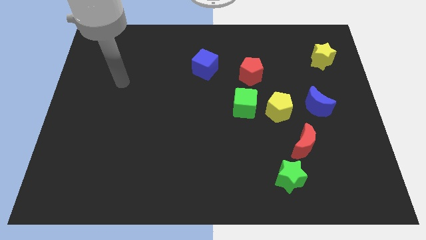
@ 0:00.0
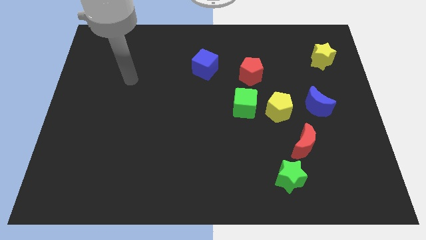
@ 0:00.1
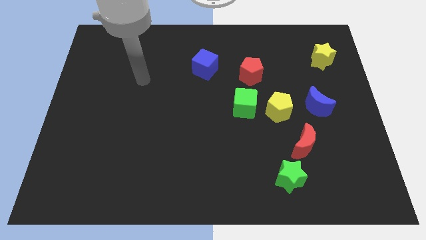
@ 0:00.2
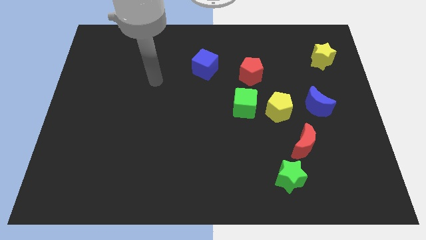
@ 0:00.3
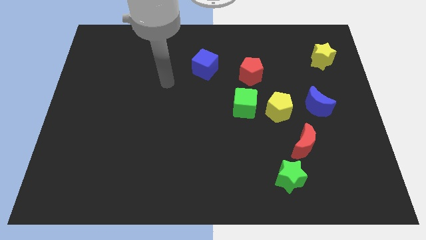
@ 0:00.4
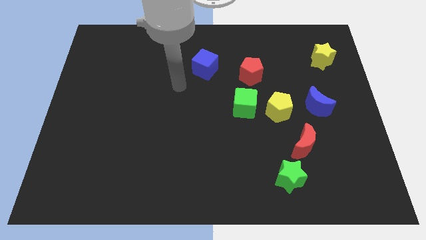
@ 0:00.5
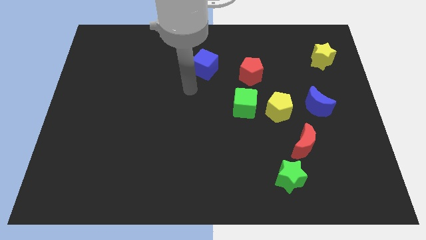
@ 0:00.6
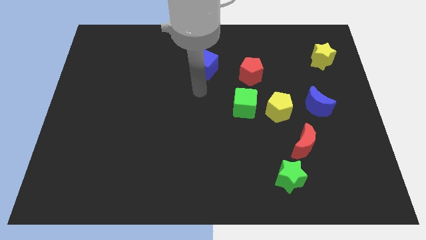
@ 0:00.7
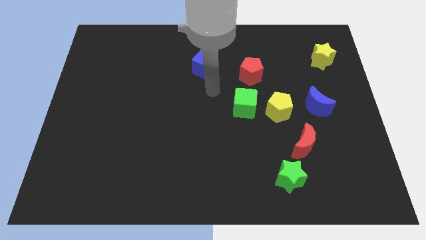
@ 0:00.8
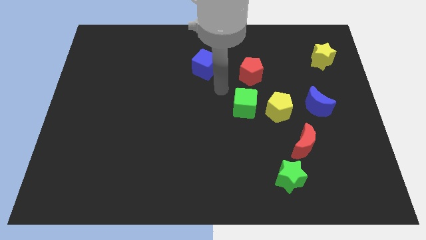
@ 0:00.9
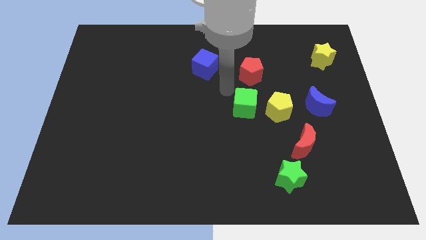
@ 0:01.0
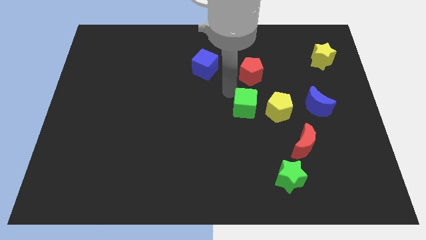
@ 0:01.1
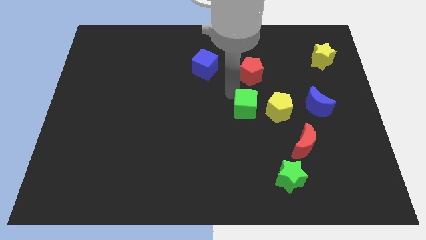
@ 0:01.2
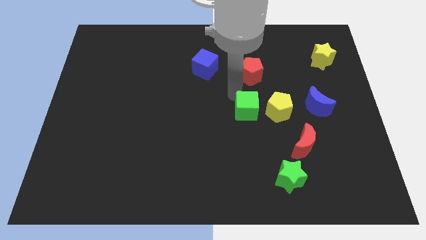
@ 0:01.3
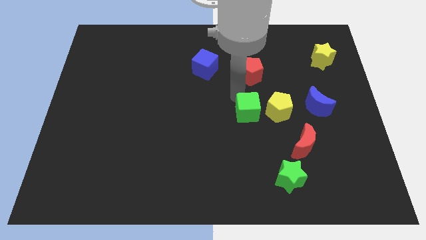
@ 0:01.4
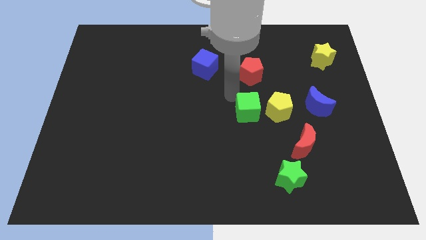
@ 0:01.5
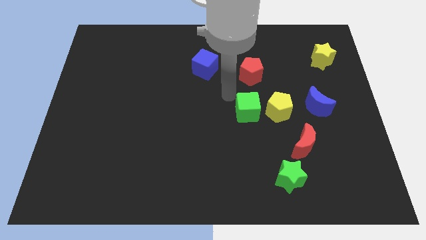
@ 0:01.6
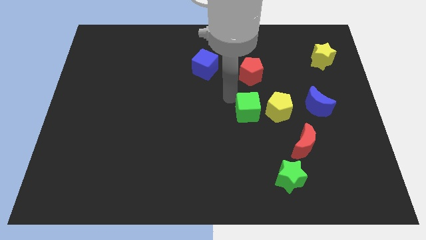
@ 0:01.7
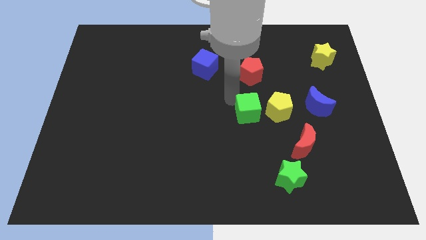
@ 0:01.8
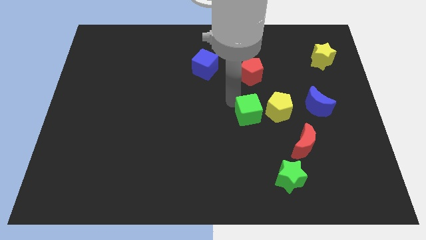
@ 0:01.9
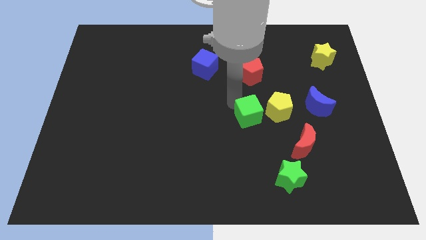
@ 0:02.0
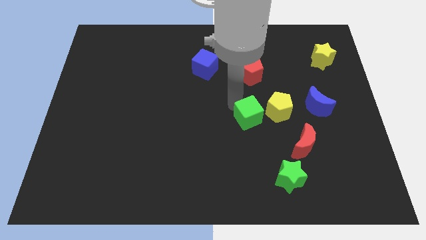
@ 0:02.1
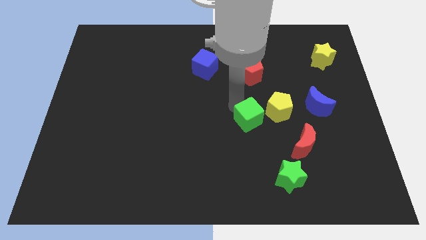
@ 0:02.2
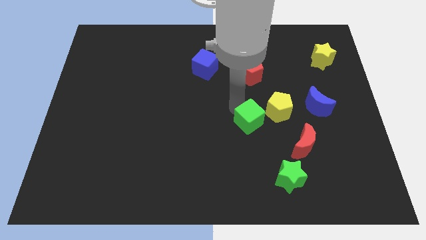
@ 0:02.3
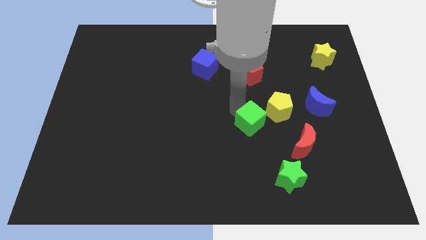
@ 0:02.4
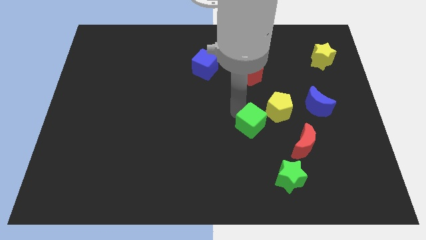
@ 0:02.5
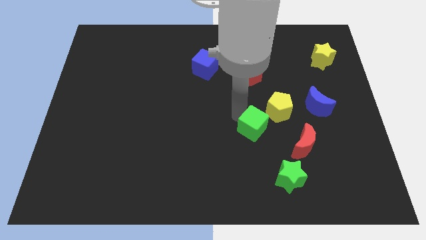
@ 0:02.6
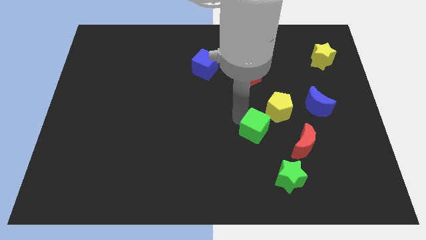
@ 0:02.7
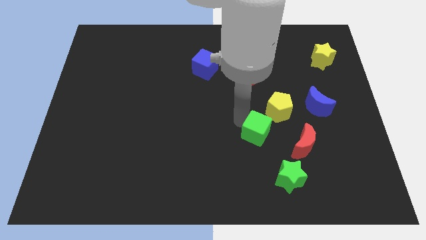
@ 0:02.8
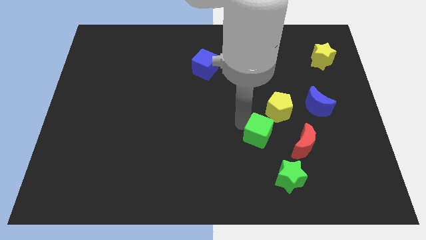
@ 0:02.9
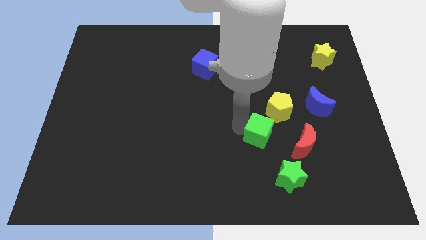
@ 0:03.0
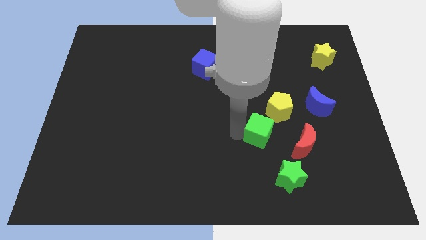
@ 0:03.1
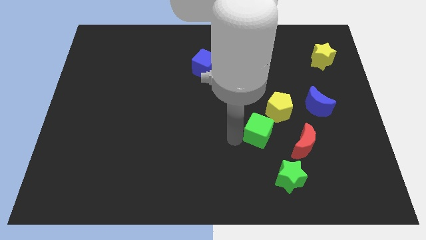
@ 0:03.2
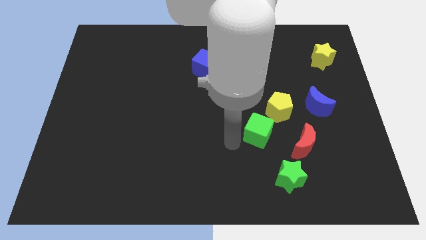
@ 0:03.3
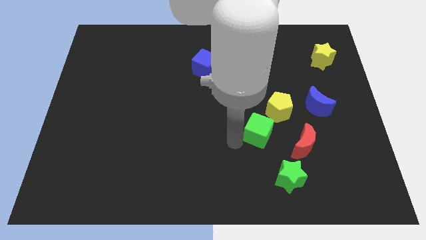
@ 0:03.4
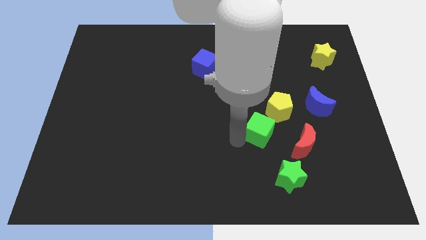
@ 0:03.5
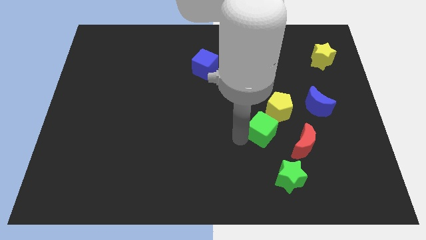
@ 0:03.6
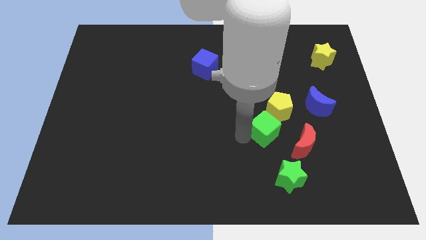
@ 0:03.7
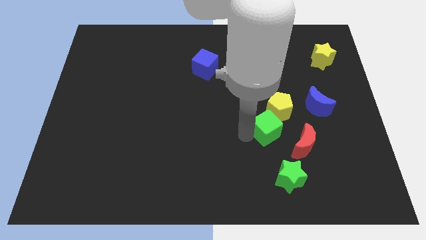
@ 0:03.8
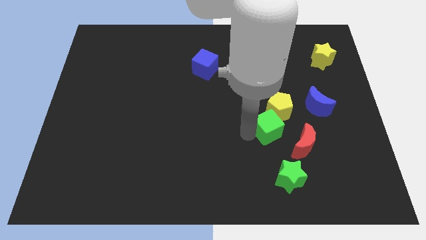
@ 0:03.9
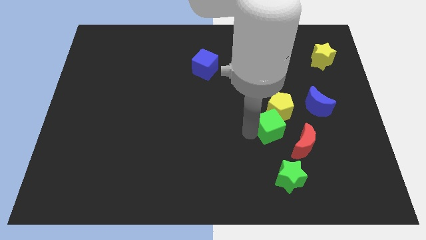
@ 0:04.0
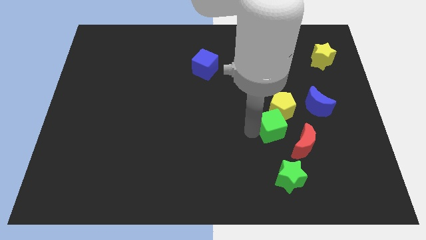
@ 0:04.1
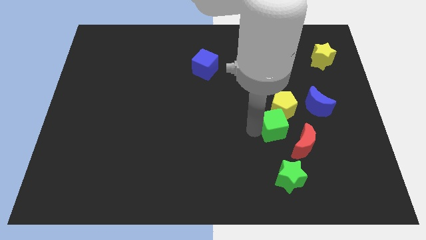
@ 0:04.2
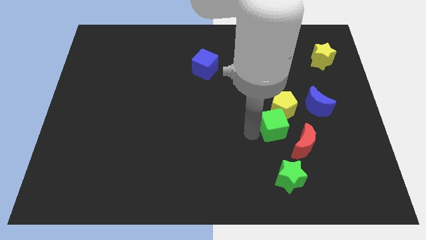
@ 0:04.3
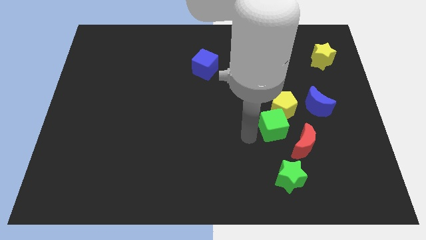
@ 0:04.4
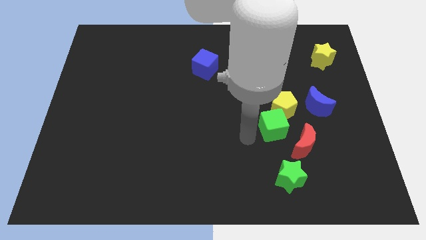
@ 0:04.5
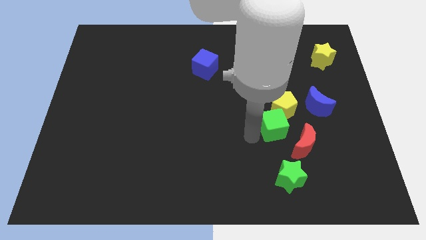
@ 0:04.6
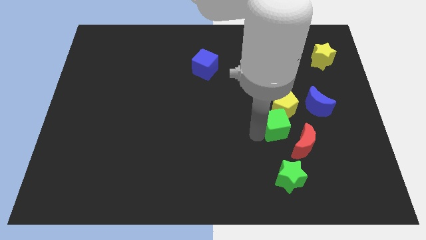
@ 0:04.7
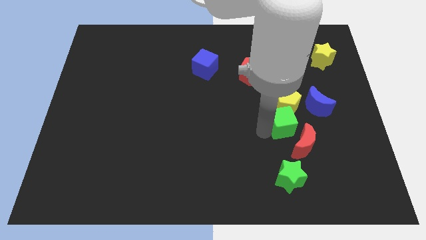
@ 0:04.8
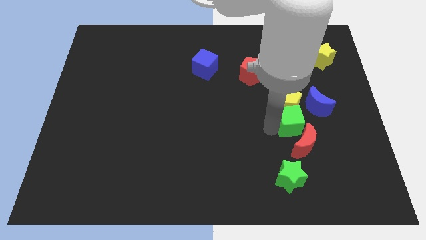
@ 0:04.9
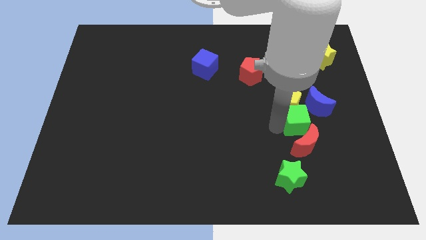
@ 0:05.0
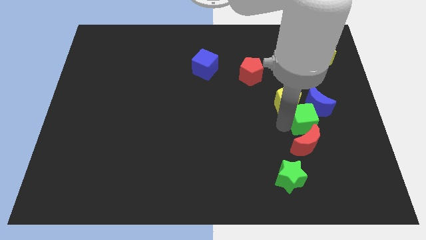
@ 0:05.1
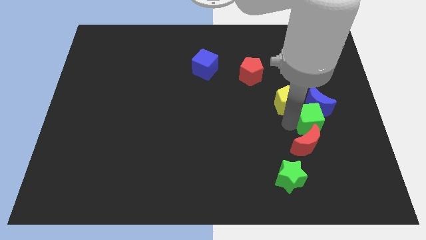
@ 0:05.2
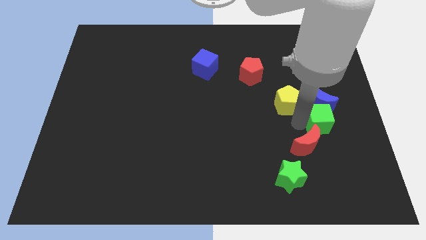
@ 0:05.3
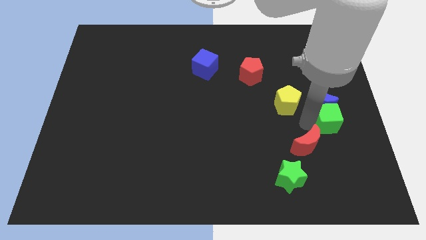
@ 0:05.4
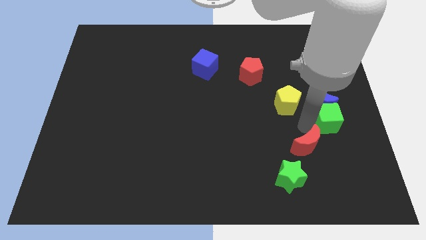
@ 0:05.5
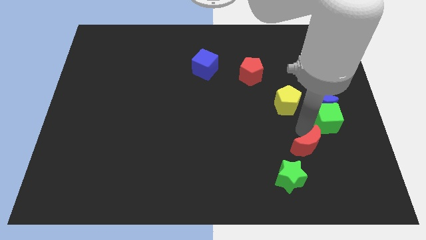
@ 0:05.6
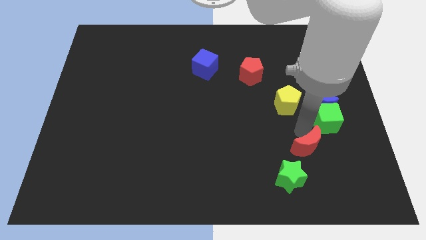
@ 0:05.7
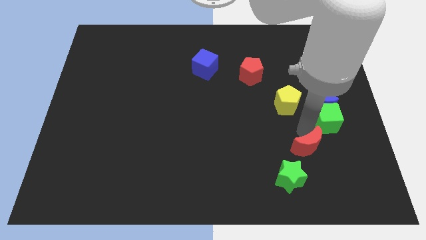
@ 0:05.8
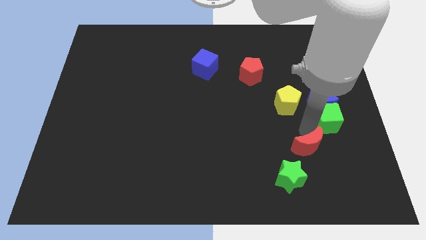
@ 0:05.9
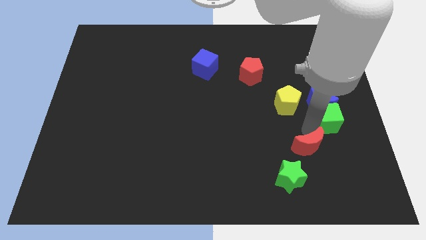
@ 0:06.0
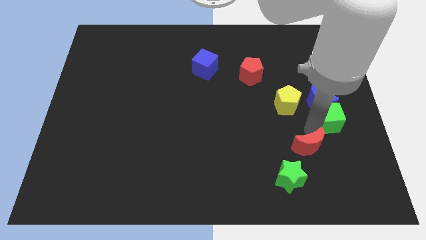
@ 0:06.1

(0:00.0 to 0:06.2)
slide the green cube to the center right

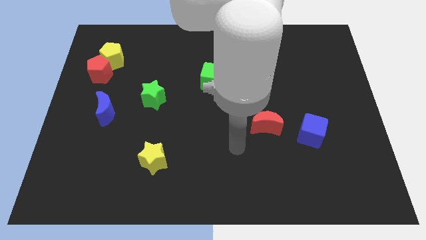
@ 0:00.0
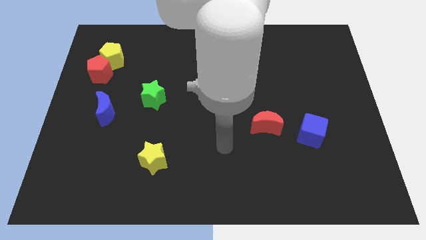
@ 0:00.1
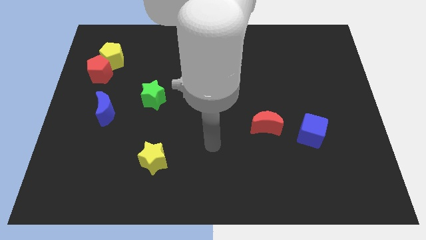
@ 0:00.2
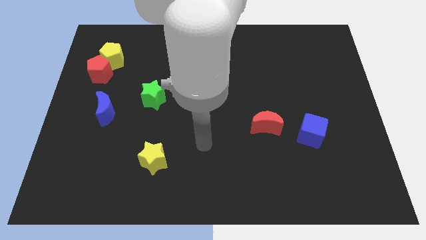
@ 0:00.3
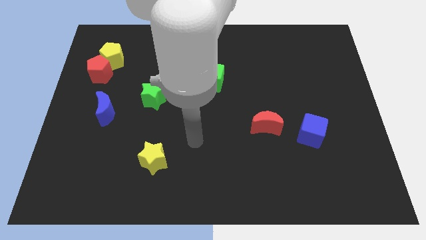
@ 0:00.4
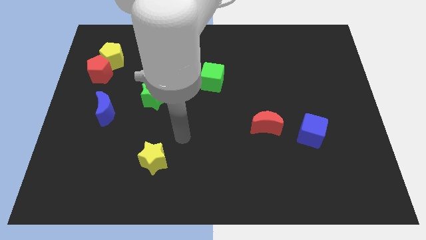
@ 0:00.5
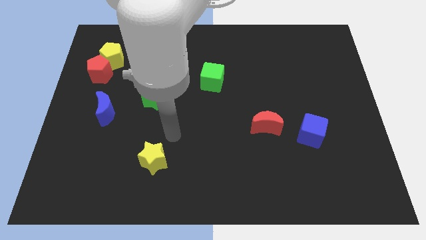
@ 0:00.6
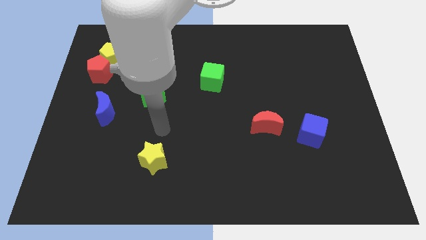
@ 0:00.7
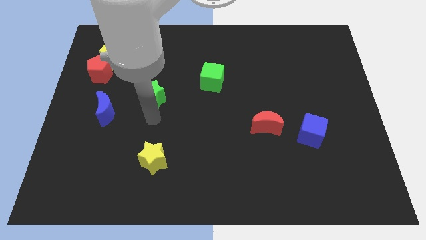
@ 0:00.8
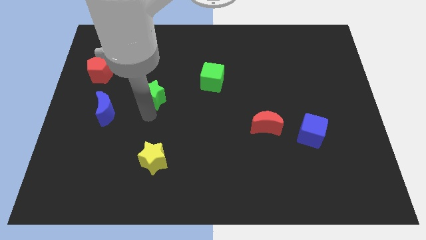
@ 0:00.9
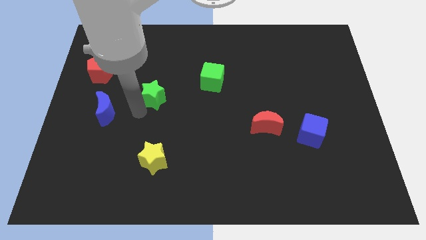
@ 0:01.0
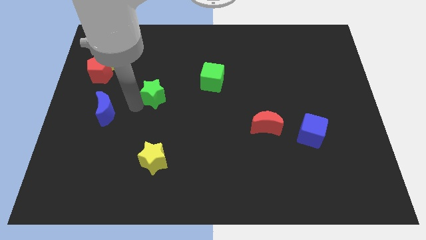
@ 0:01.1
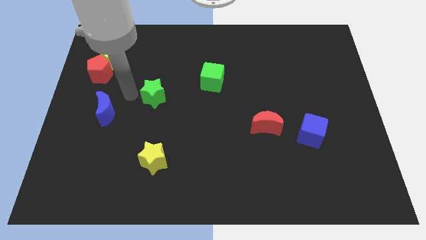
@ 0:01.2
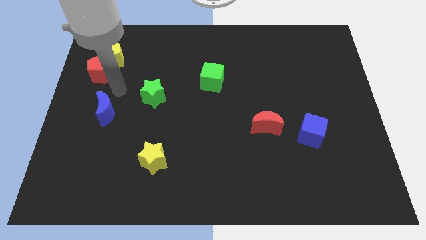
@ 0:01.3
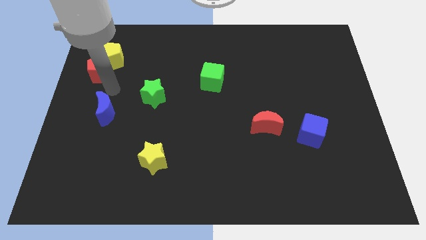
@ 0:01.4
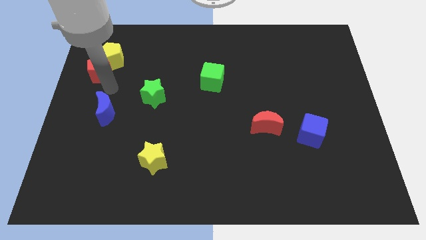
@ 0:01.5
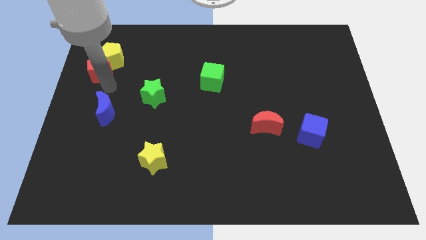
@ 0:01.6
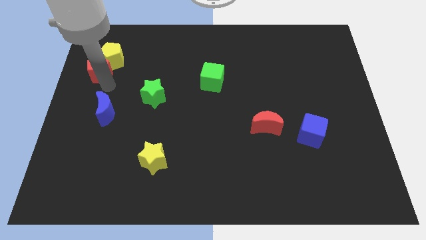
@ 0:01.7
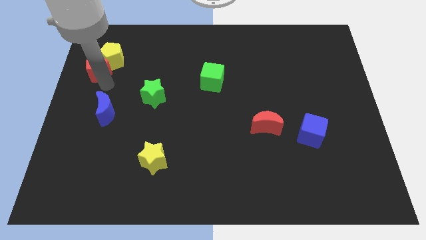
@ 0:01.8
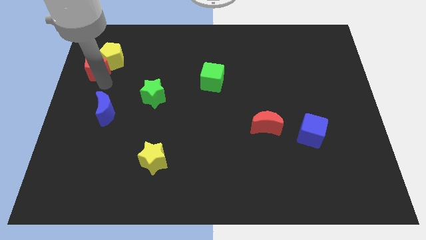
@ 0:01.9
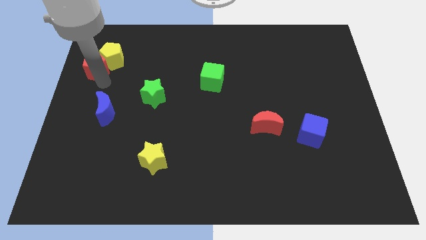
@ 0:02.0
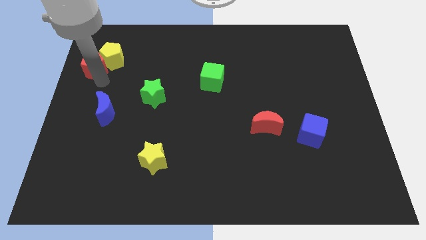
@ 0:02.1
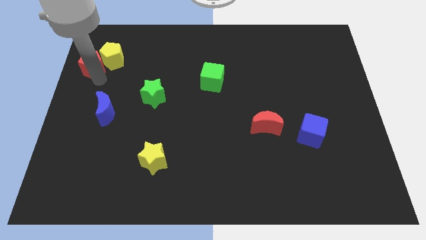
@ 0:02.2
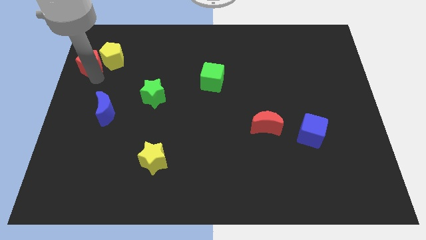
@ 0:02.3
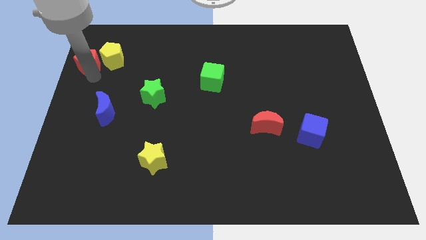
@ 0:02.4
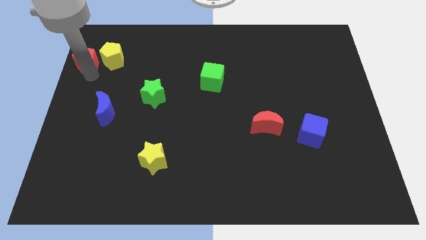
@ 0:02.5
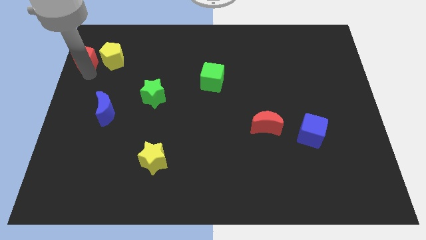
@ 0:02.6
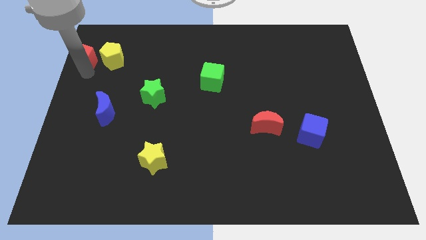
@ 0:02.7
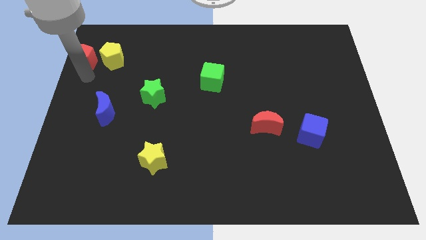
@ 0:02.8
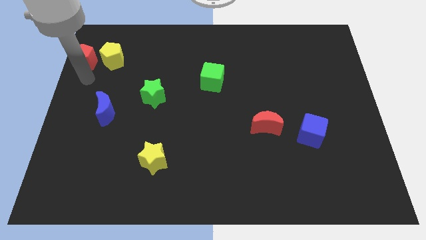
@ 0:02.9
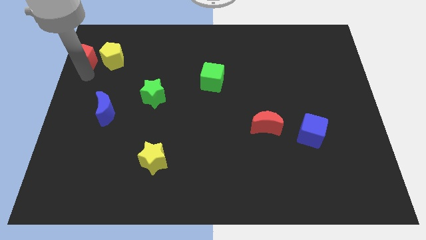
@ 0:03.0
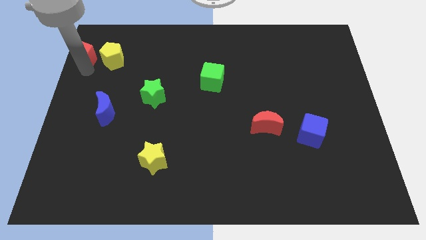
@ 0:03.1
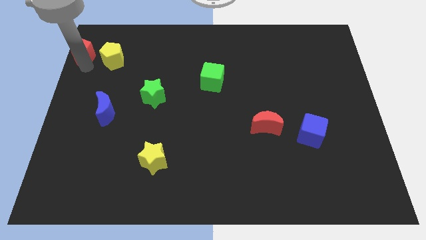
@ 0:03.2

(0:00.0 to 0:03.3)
slide the red pentagon to the top left of the board
